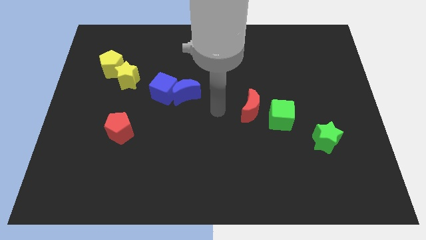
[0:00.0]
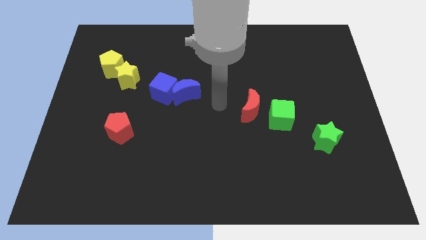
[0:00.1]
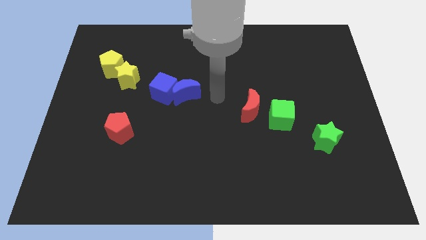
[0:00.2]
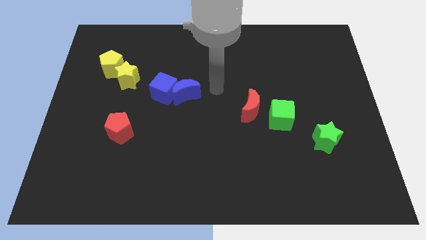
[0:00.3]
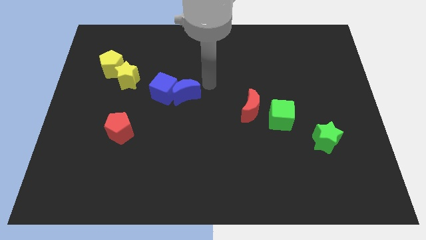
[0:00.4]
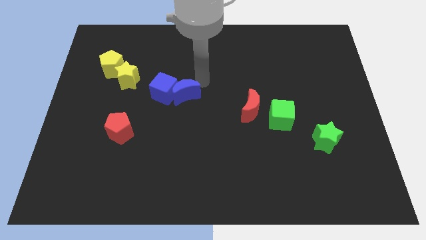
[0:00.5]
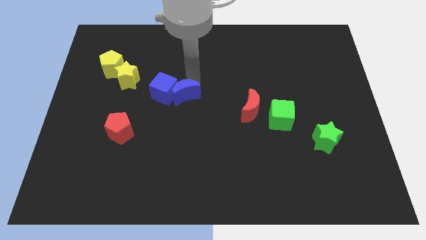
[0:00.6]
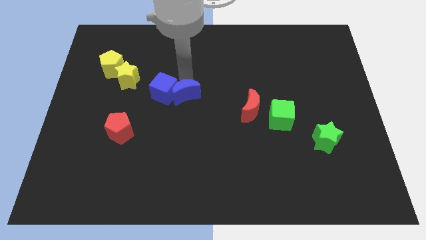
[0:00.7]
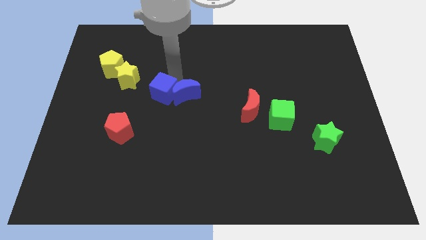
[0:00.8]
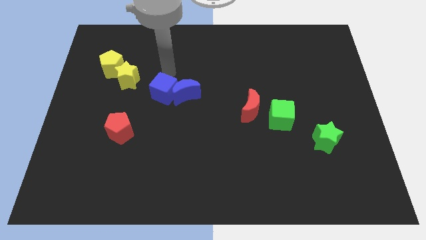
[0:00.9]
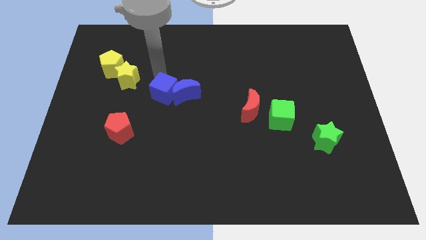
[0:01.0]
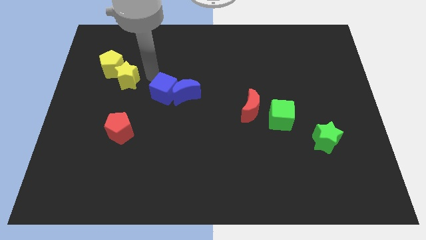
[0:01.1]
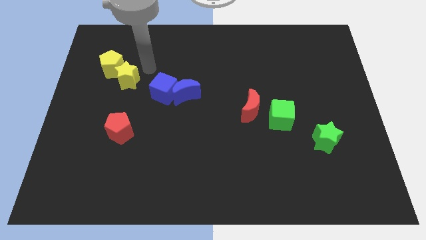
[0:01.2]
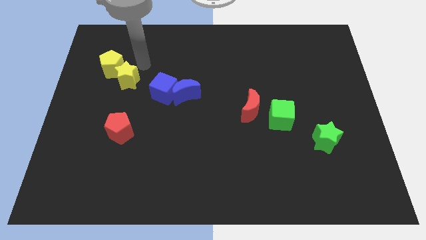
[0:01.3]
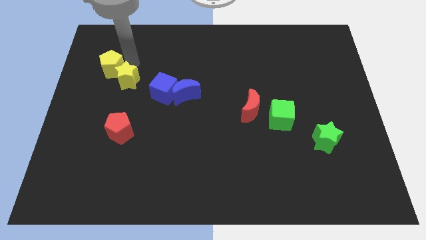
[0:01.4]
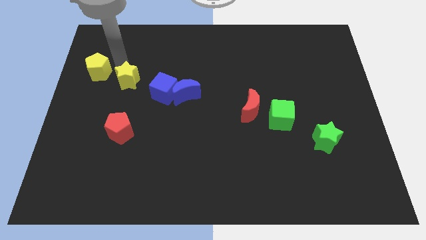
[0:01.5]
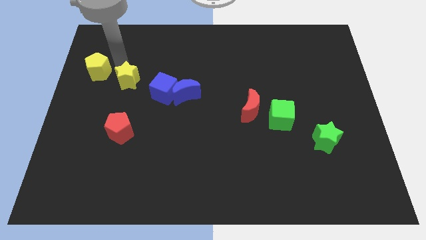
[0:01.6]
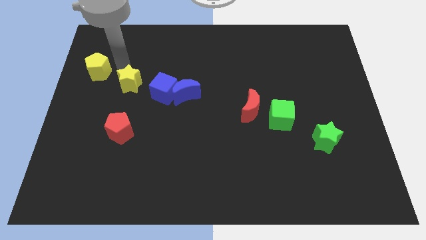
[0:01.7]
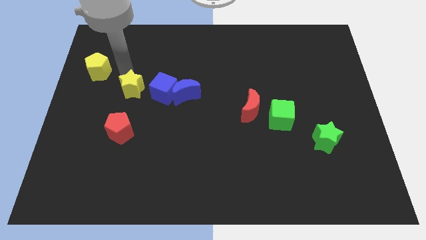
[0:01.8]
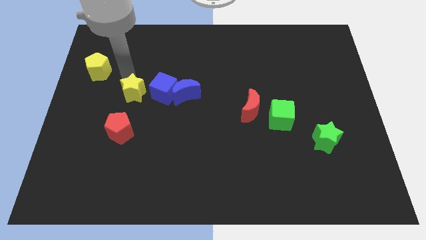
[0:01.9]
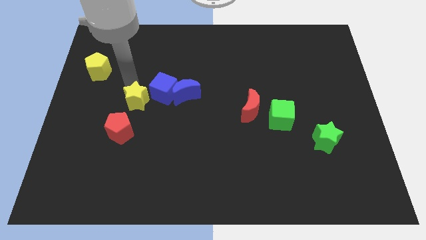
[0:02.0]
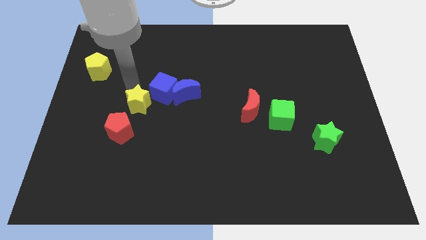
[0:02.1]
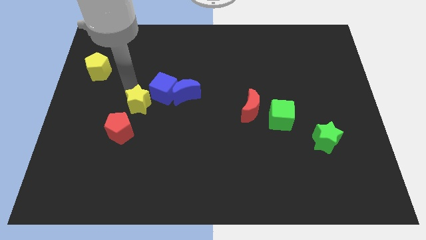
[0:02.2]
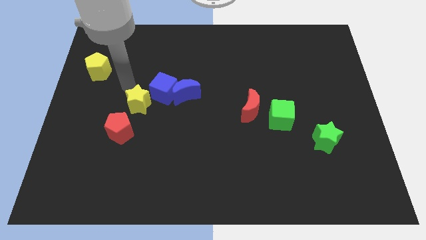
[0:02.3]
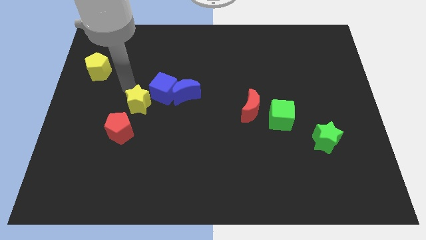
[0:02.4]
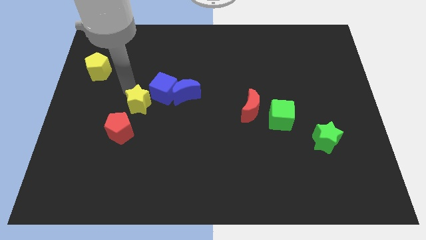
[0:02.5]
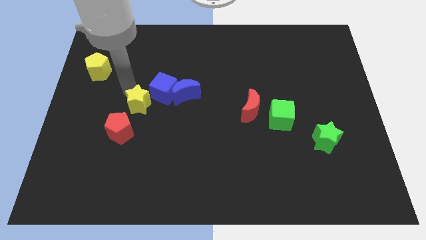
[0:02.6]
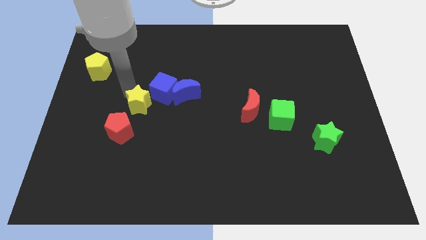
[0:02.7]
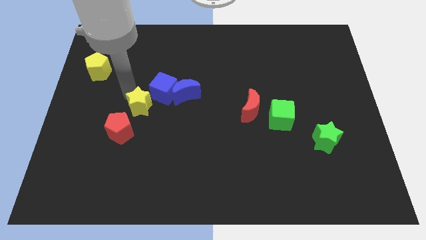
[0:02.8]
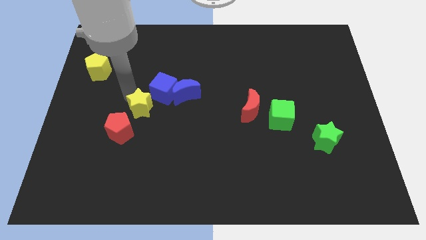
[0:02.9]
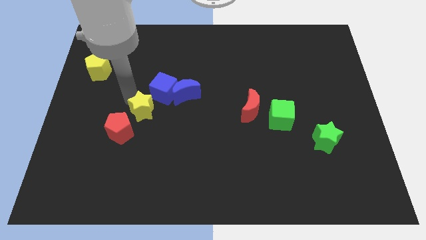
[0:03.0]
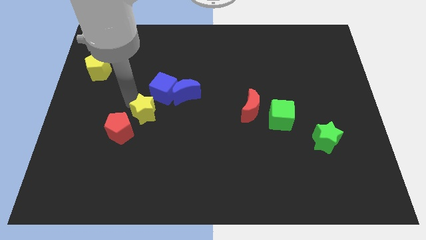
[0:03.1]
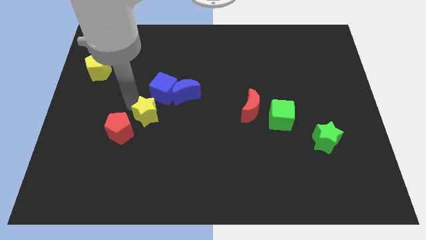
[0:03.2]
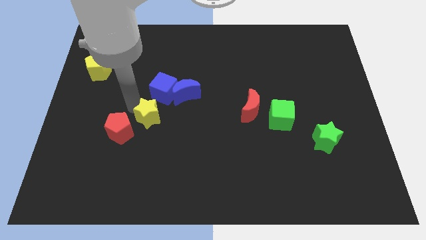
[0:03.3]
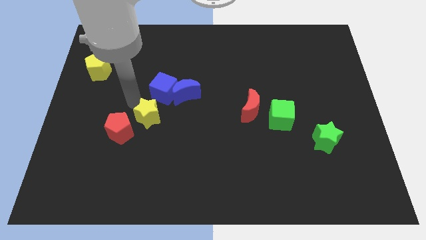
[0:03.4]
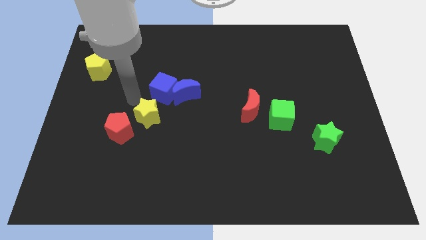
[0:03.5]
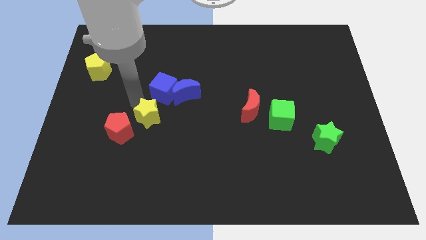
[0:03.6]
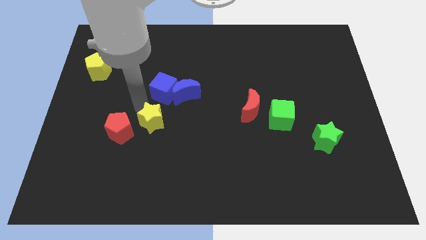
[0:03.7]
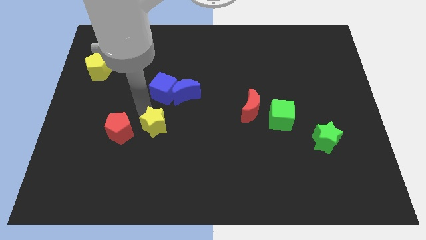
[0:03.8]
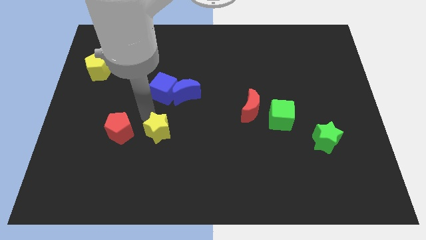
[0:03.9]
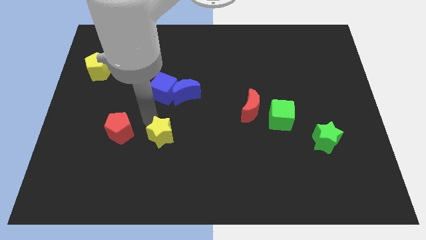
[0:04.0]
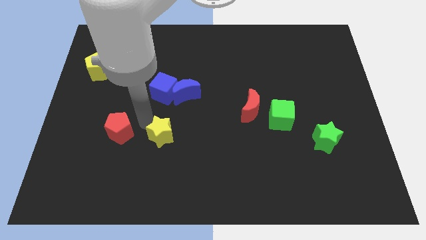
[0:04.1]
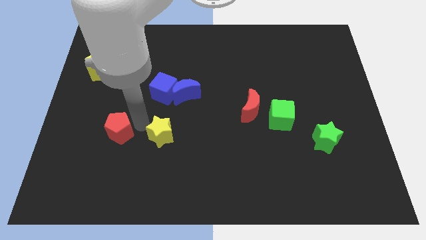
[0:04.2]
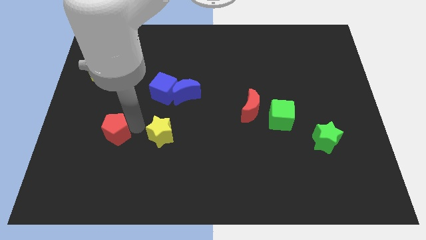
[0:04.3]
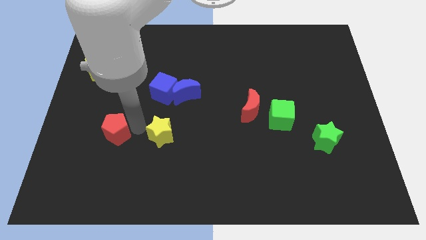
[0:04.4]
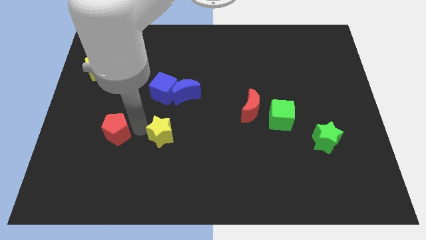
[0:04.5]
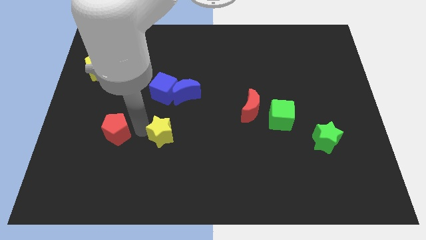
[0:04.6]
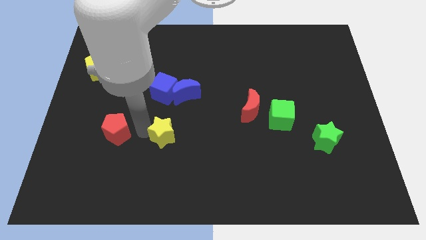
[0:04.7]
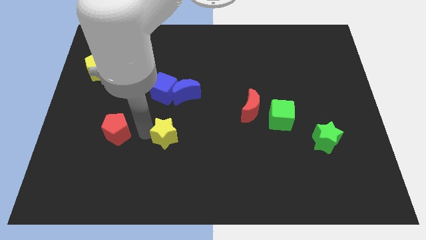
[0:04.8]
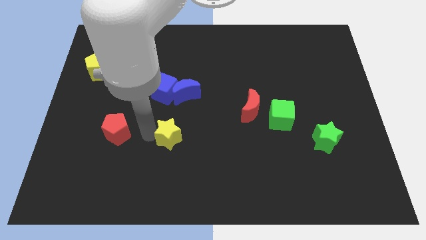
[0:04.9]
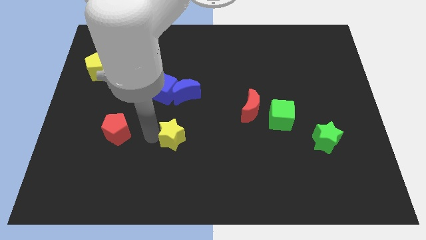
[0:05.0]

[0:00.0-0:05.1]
push the yellow star downwards and then to the right

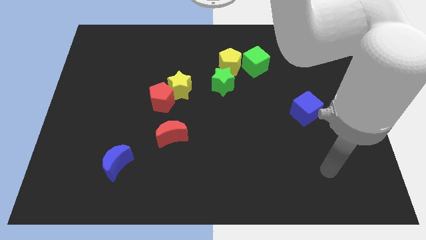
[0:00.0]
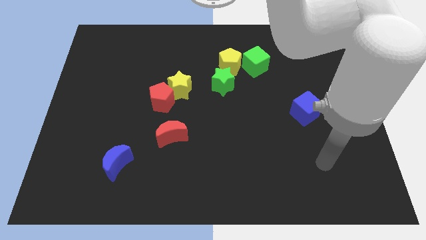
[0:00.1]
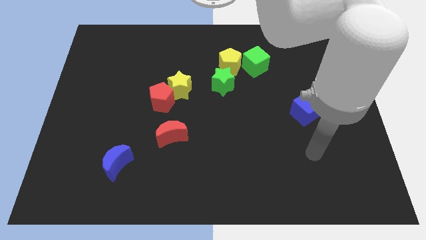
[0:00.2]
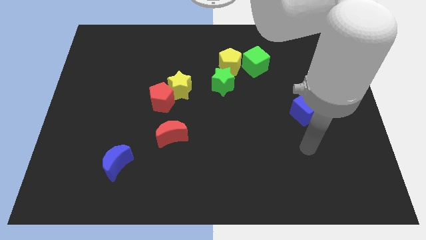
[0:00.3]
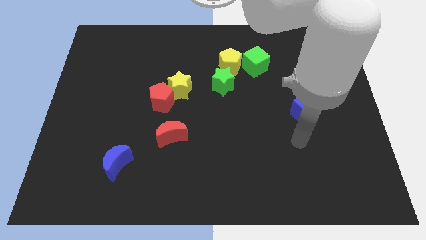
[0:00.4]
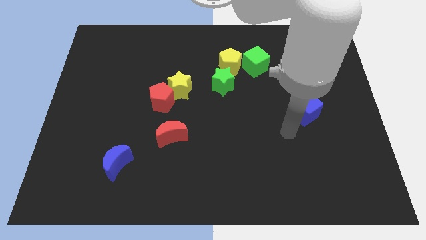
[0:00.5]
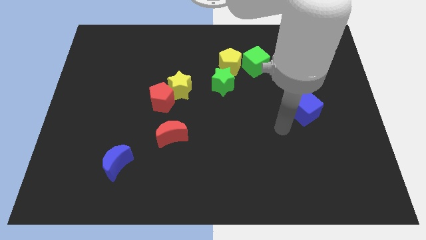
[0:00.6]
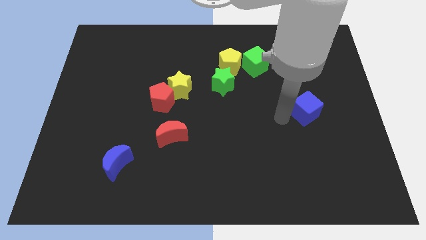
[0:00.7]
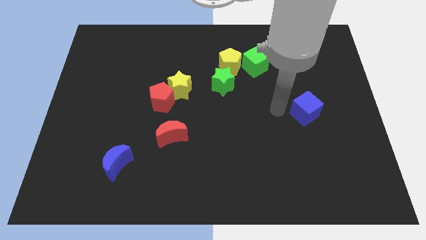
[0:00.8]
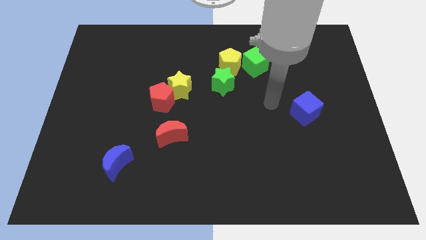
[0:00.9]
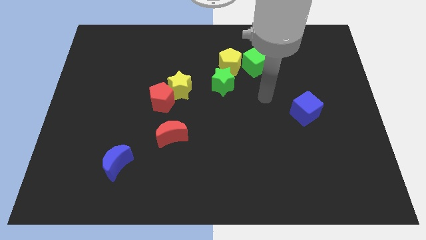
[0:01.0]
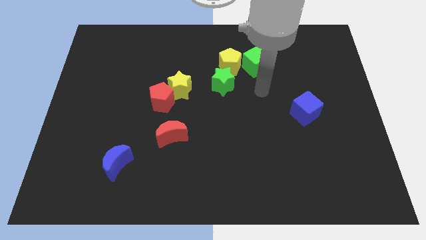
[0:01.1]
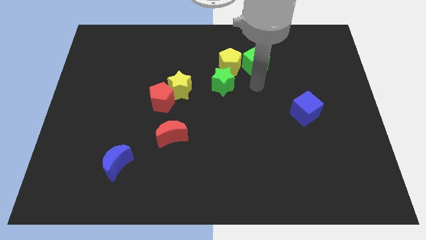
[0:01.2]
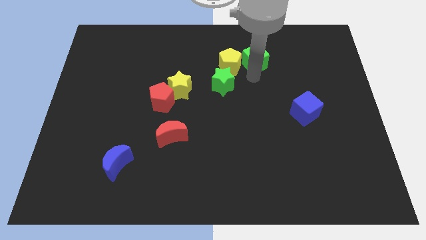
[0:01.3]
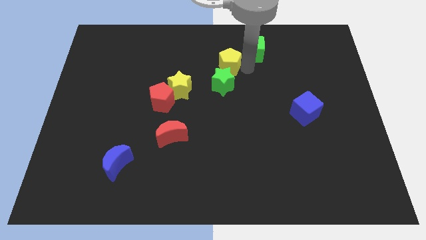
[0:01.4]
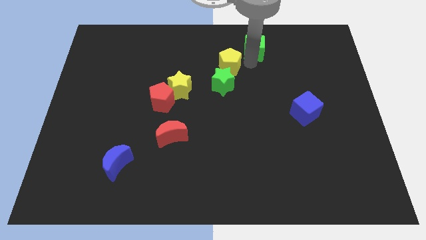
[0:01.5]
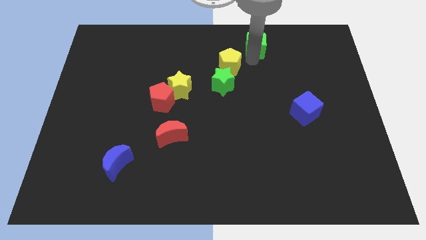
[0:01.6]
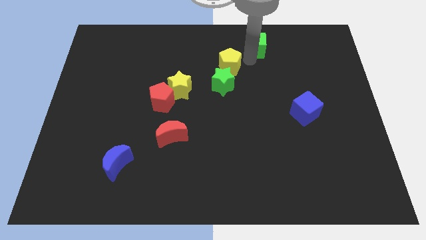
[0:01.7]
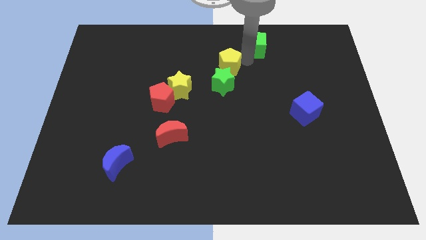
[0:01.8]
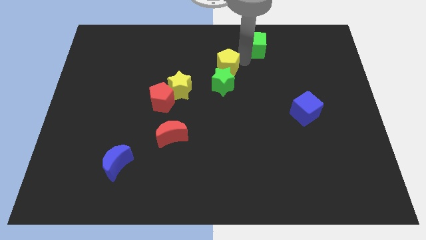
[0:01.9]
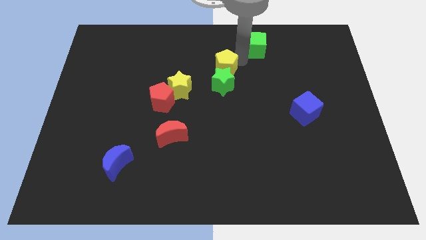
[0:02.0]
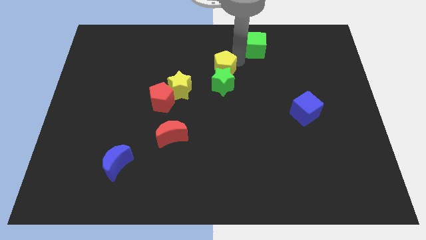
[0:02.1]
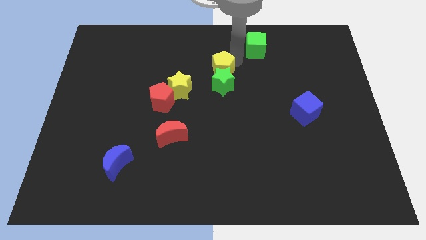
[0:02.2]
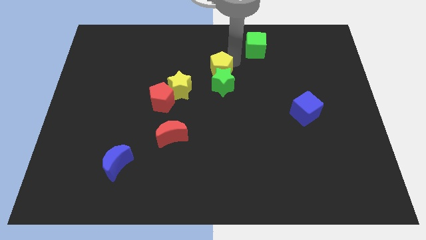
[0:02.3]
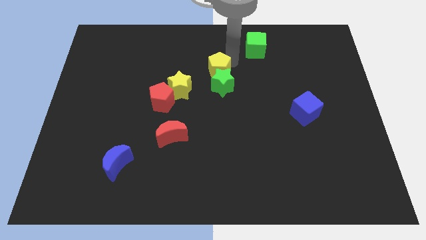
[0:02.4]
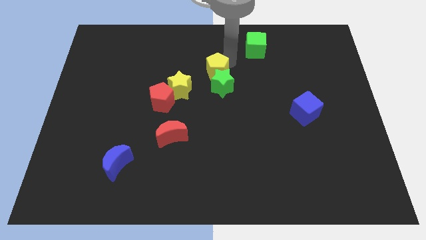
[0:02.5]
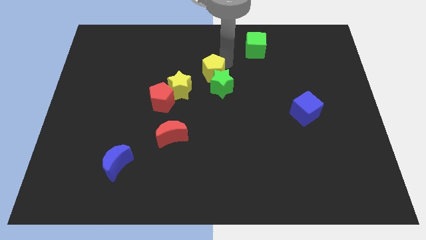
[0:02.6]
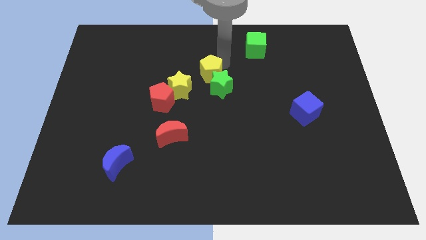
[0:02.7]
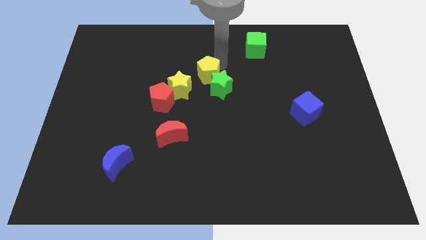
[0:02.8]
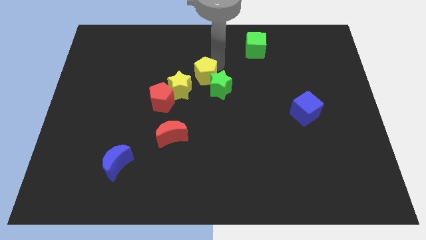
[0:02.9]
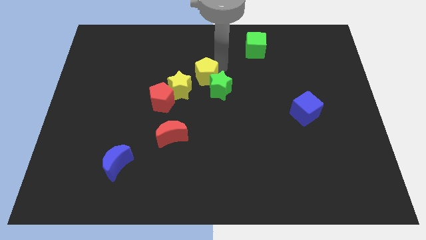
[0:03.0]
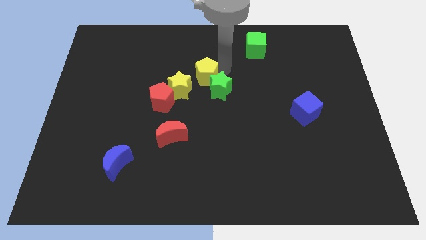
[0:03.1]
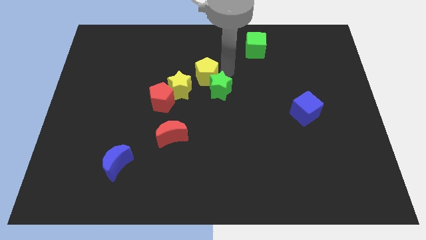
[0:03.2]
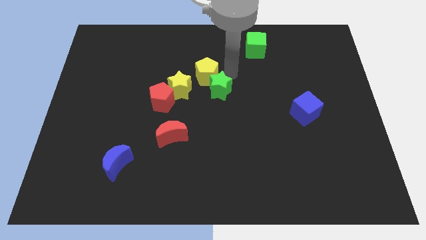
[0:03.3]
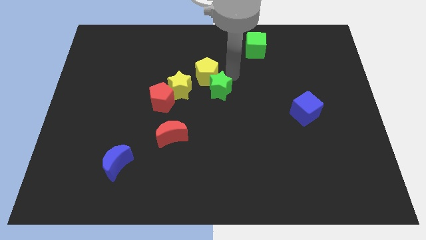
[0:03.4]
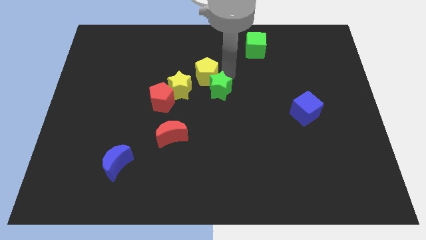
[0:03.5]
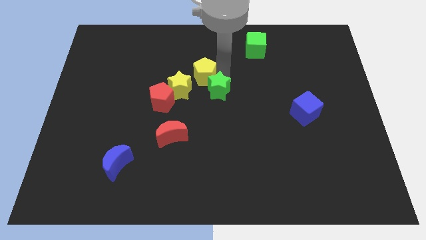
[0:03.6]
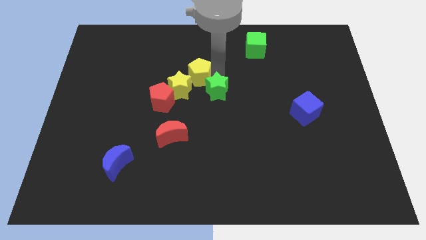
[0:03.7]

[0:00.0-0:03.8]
move the yellow pentagon somewhat left
